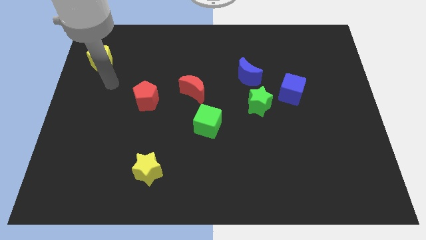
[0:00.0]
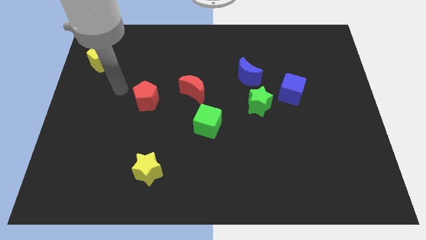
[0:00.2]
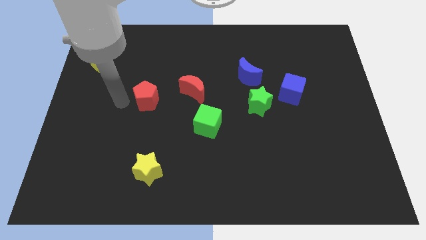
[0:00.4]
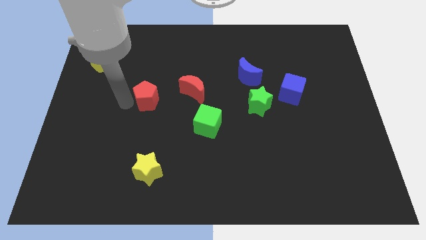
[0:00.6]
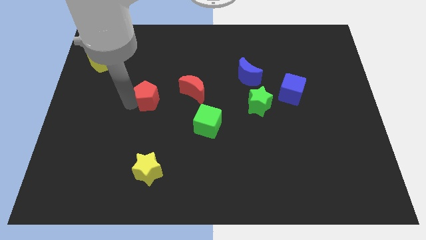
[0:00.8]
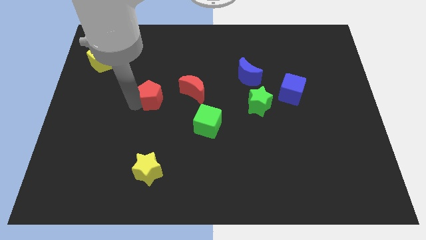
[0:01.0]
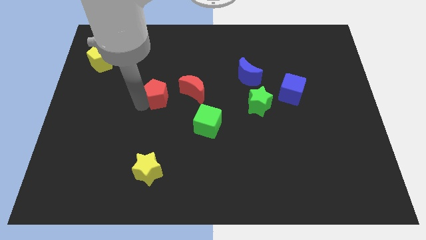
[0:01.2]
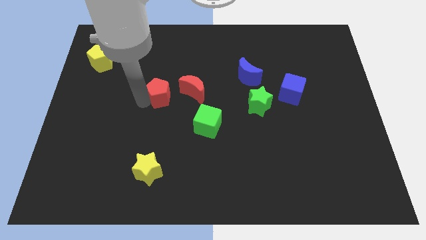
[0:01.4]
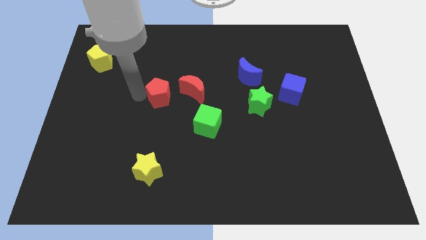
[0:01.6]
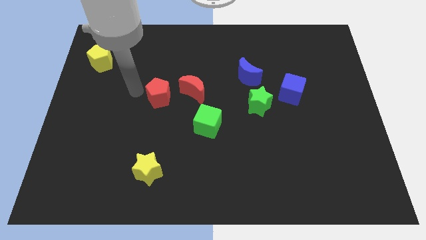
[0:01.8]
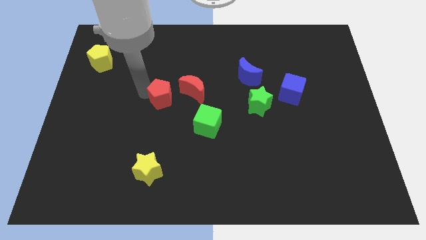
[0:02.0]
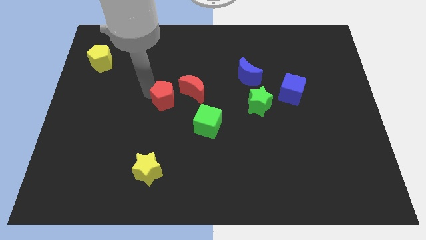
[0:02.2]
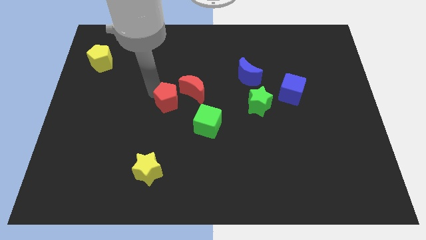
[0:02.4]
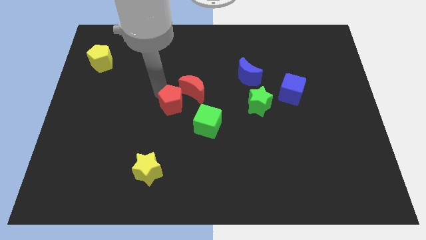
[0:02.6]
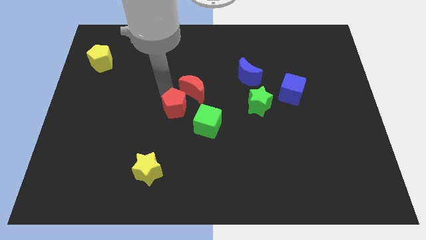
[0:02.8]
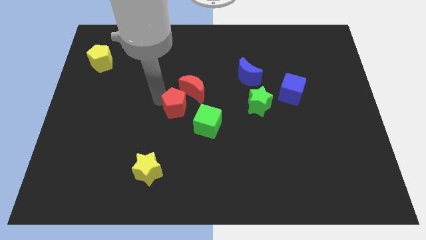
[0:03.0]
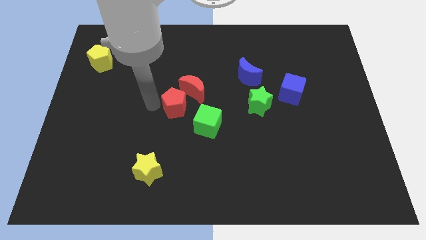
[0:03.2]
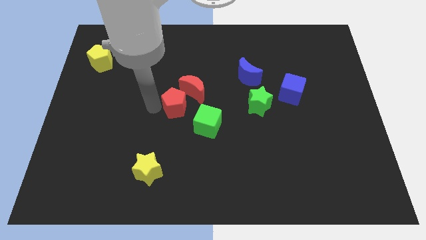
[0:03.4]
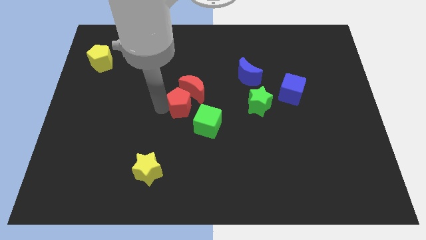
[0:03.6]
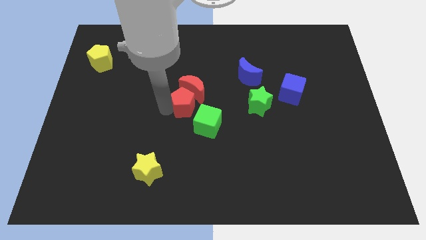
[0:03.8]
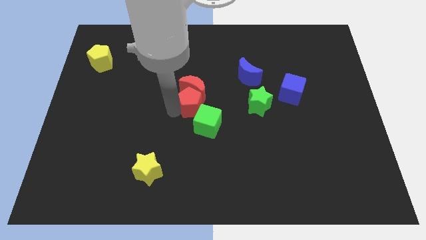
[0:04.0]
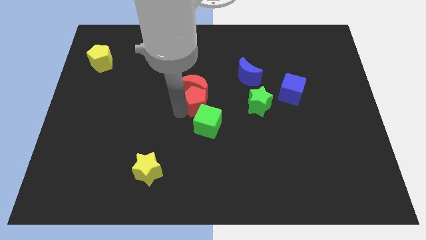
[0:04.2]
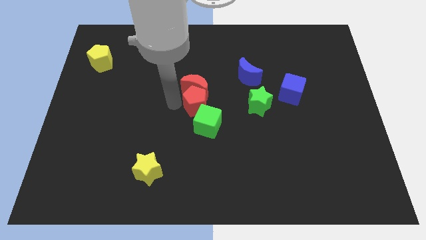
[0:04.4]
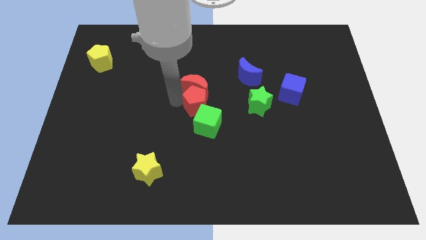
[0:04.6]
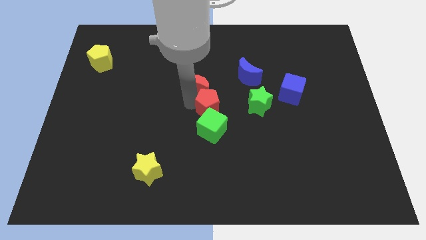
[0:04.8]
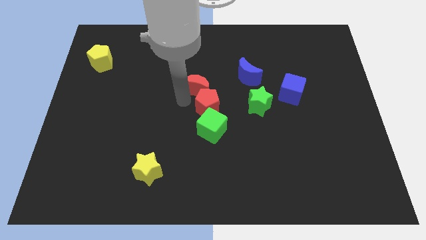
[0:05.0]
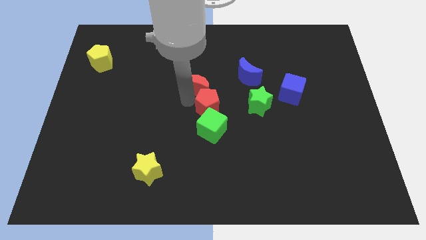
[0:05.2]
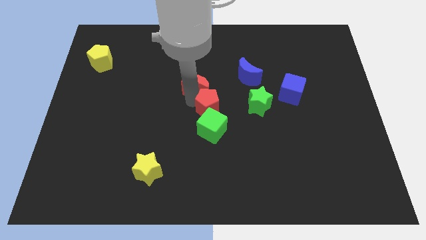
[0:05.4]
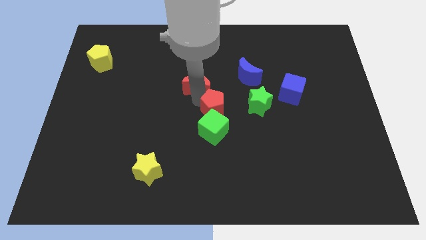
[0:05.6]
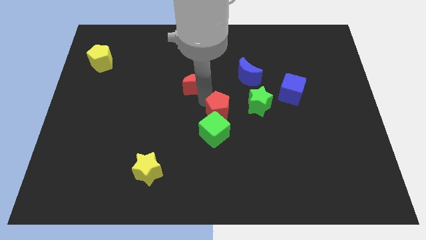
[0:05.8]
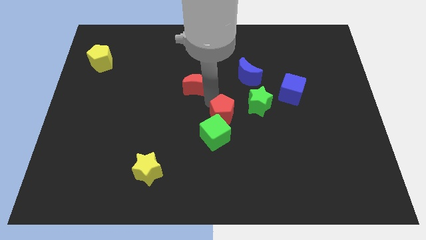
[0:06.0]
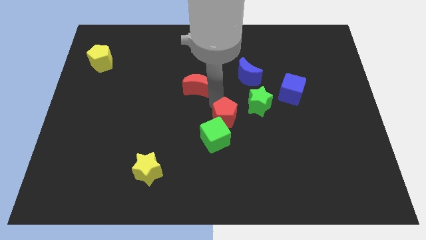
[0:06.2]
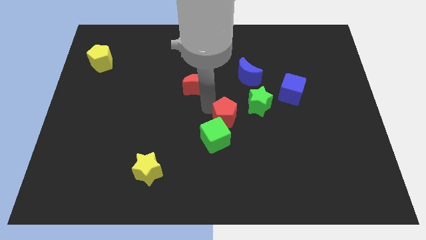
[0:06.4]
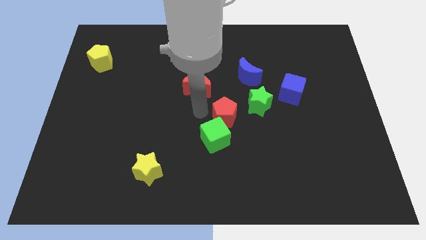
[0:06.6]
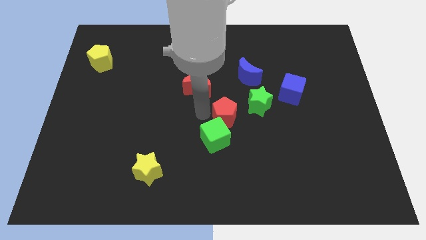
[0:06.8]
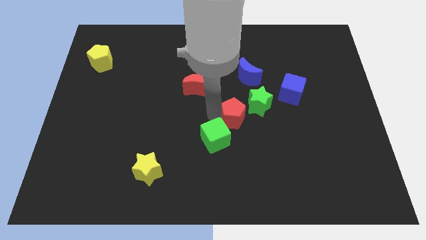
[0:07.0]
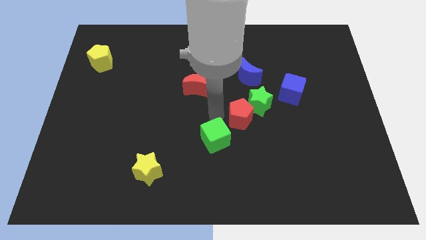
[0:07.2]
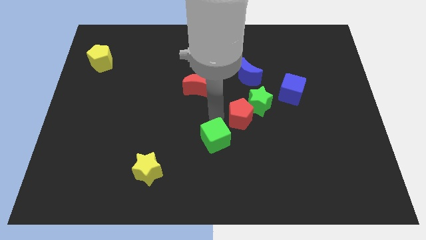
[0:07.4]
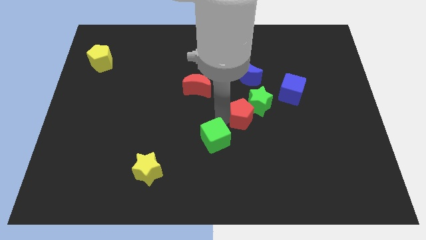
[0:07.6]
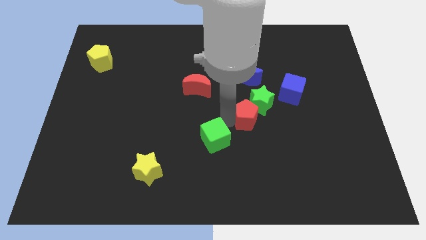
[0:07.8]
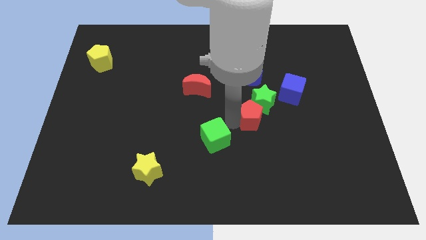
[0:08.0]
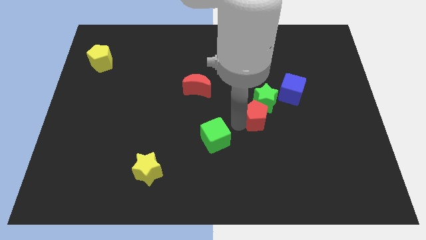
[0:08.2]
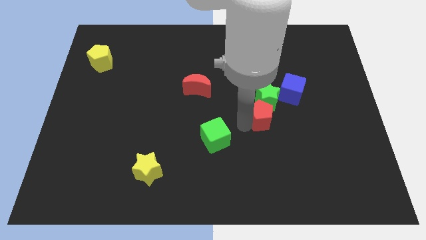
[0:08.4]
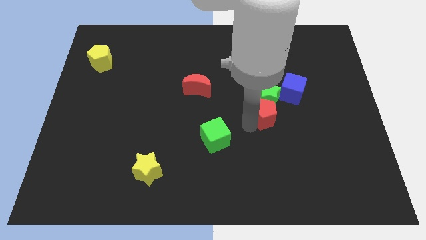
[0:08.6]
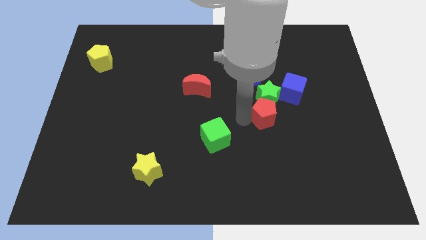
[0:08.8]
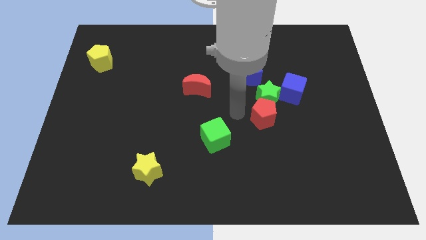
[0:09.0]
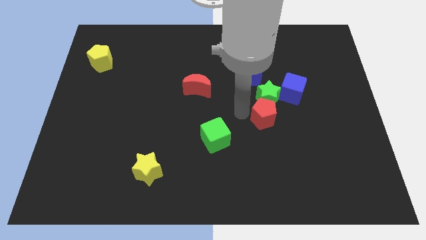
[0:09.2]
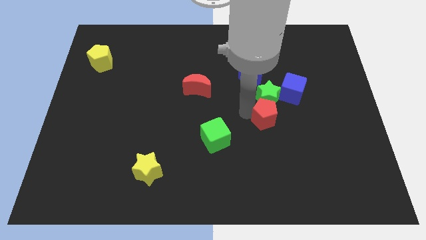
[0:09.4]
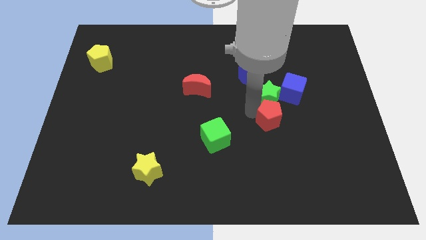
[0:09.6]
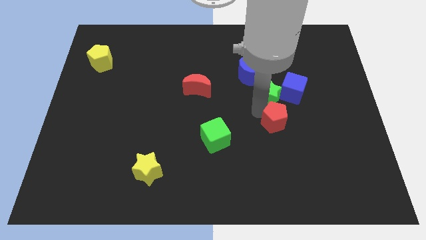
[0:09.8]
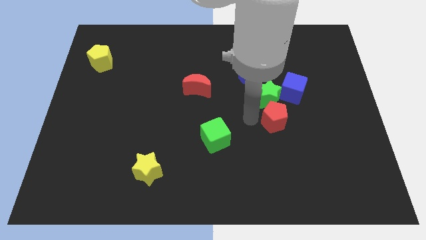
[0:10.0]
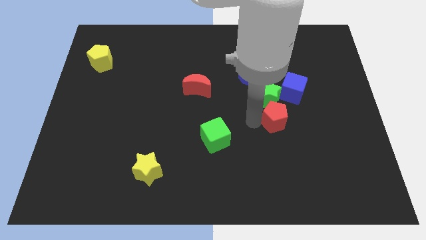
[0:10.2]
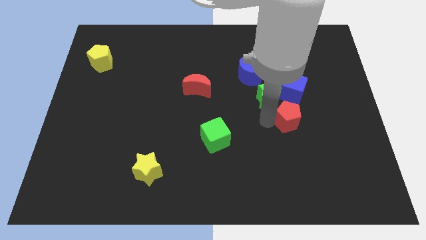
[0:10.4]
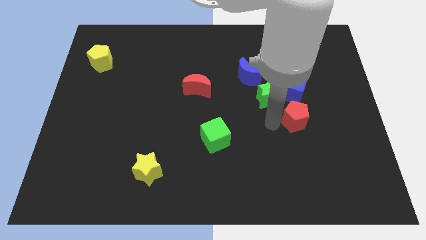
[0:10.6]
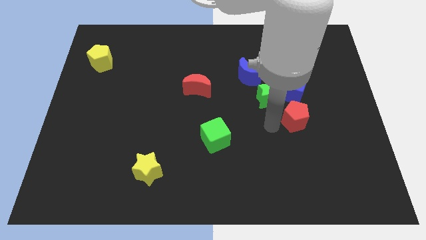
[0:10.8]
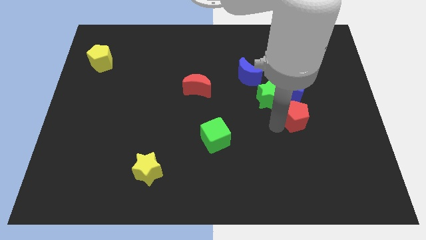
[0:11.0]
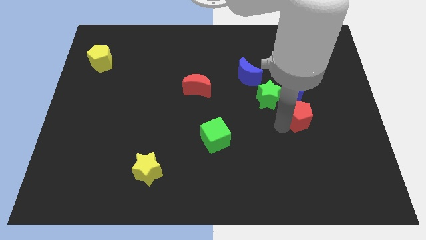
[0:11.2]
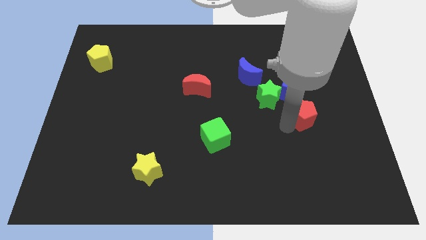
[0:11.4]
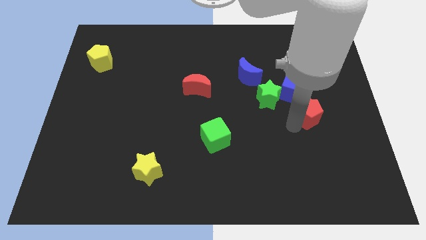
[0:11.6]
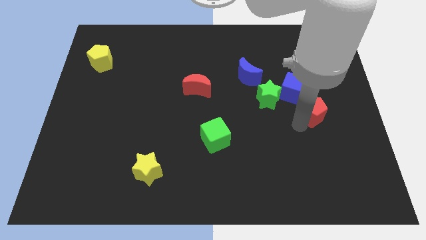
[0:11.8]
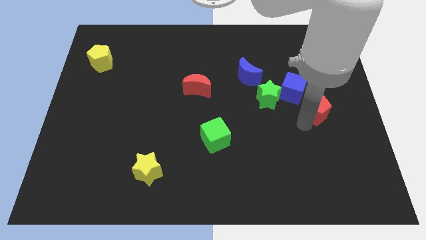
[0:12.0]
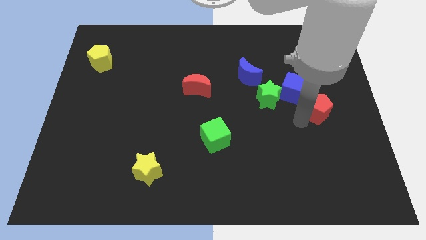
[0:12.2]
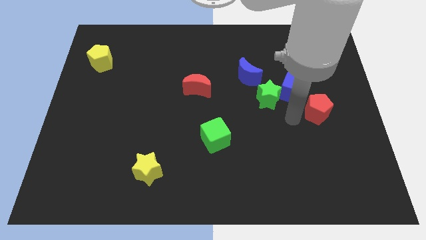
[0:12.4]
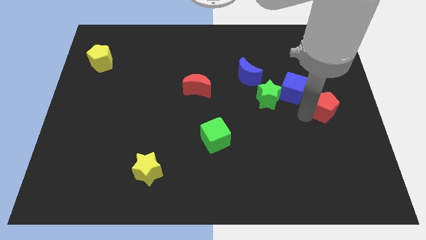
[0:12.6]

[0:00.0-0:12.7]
push the red pentagon to the center right
